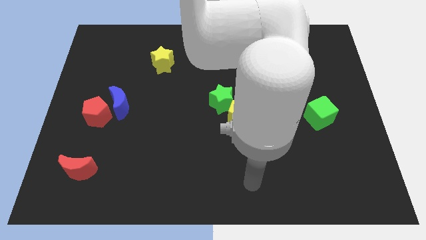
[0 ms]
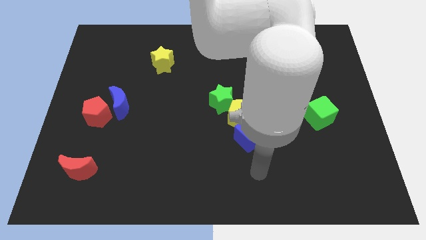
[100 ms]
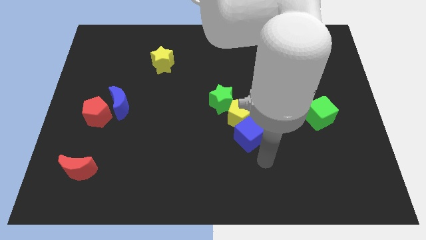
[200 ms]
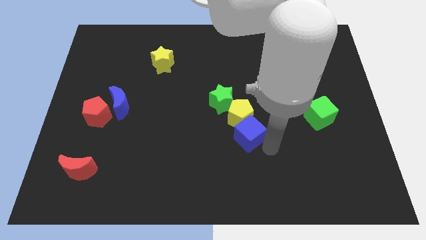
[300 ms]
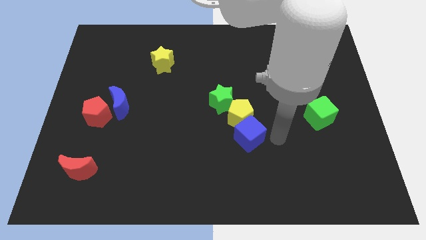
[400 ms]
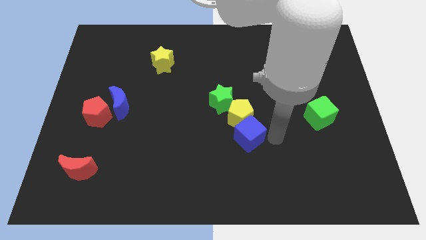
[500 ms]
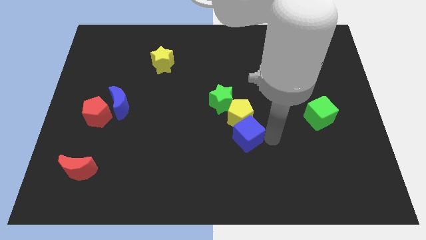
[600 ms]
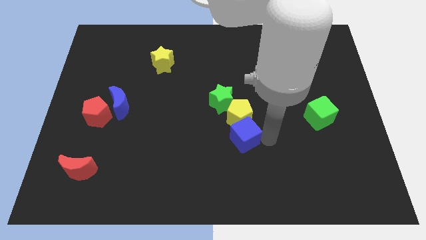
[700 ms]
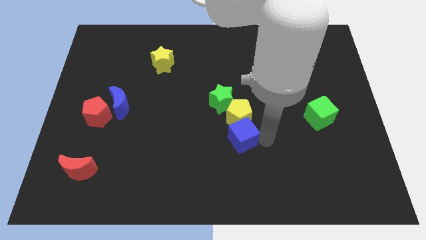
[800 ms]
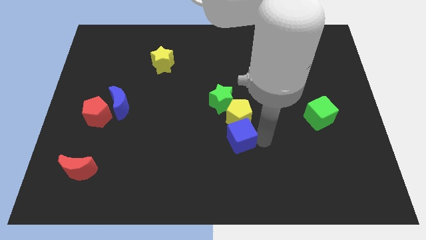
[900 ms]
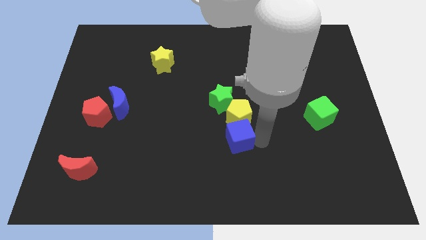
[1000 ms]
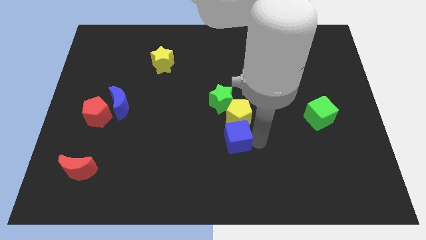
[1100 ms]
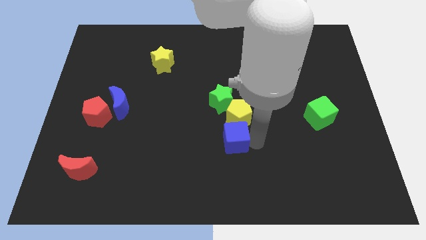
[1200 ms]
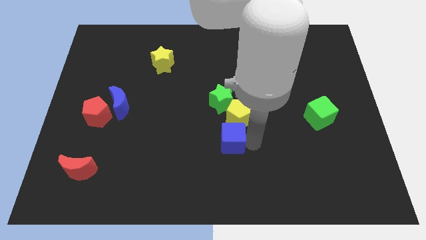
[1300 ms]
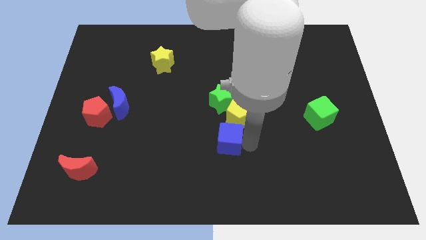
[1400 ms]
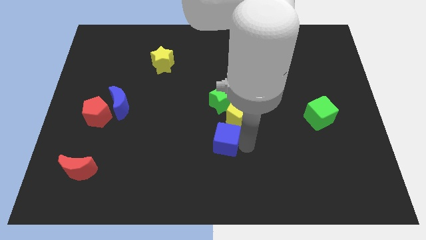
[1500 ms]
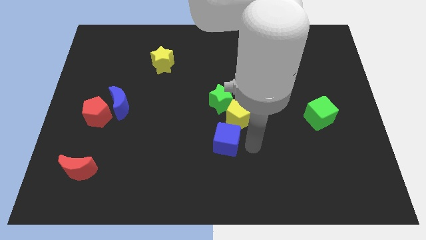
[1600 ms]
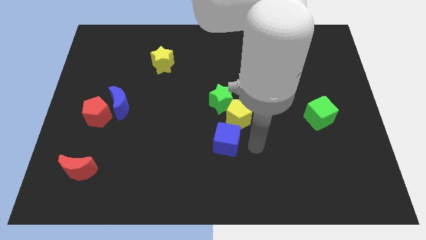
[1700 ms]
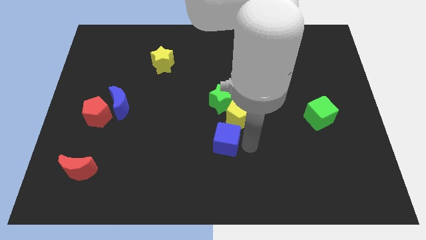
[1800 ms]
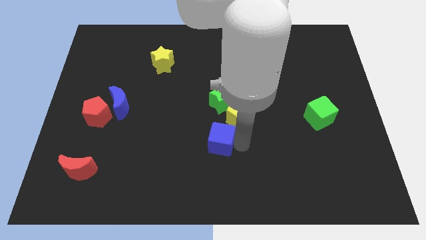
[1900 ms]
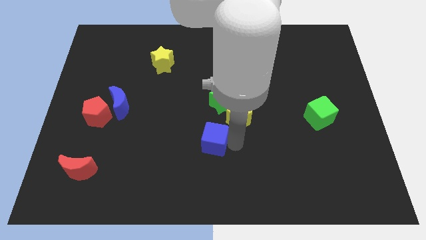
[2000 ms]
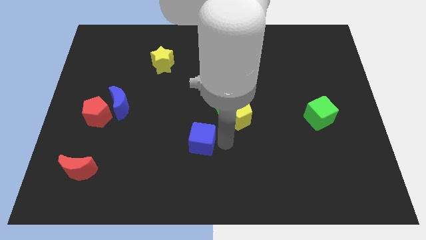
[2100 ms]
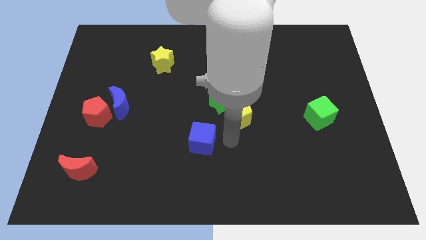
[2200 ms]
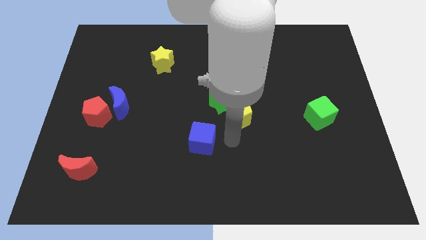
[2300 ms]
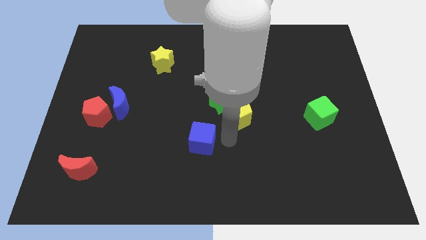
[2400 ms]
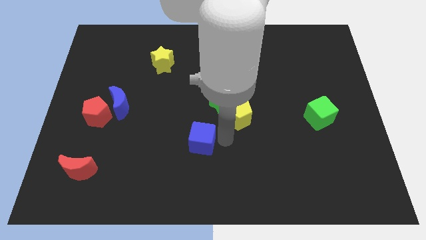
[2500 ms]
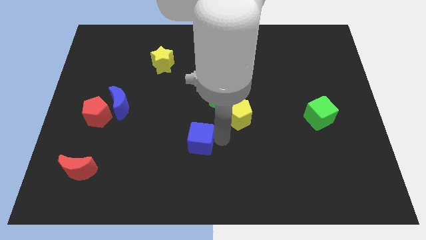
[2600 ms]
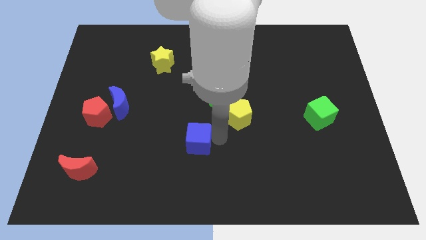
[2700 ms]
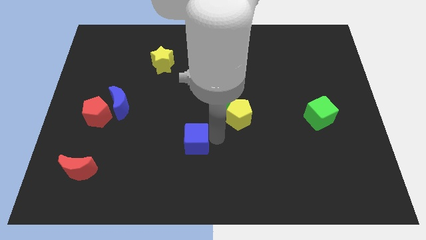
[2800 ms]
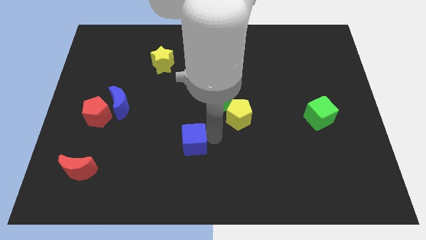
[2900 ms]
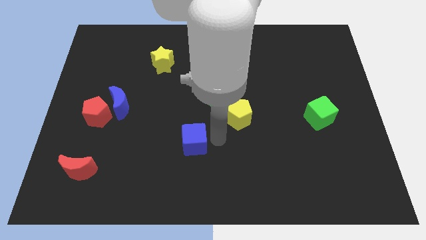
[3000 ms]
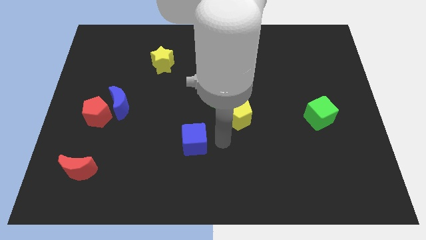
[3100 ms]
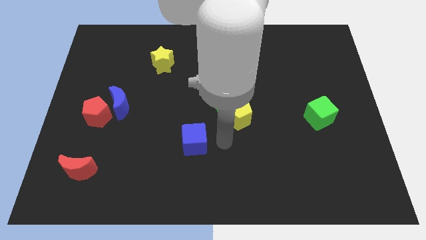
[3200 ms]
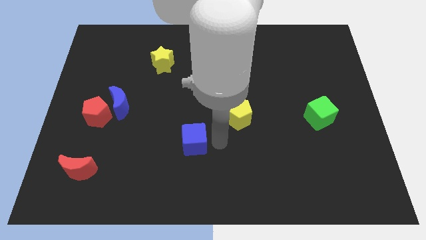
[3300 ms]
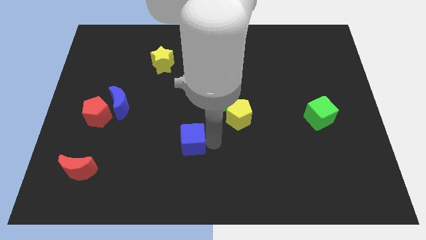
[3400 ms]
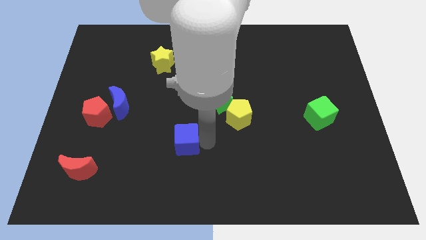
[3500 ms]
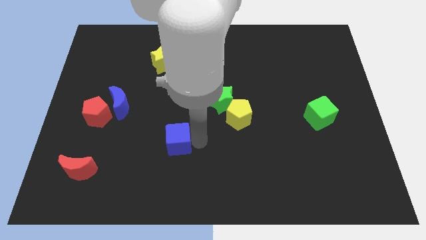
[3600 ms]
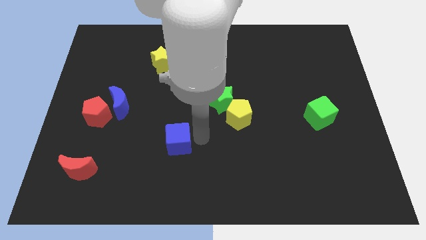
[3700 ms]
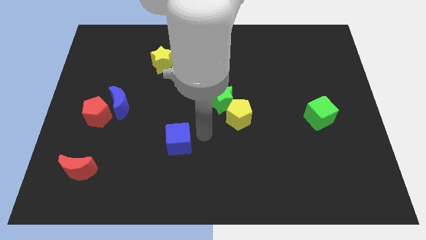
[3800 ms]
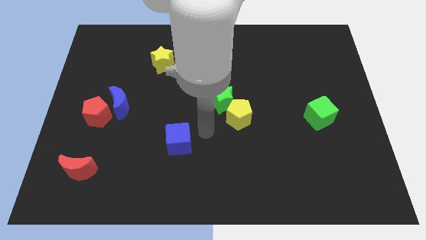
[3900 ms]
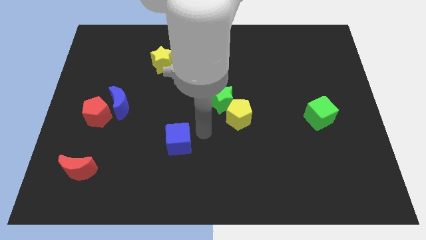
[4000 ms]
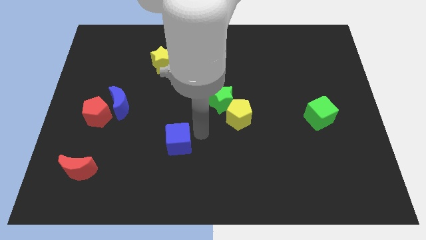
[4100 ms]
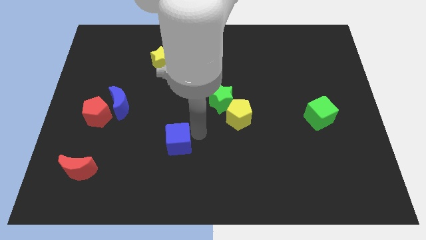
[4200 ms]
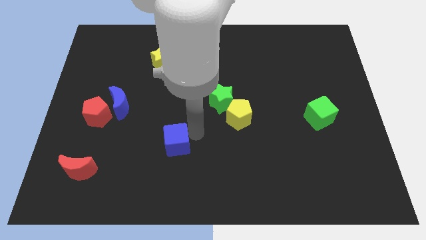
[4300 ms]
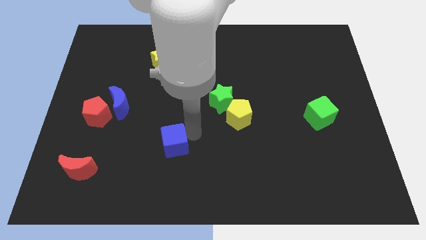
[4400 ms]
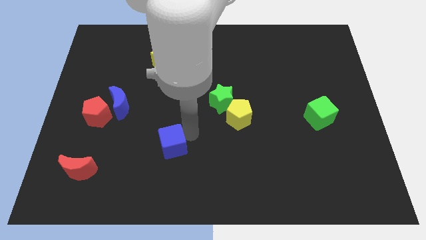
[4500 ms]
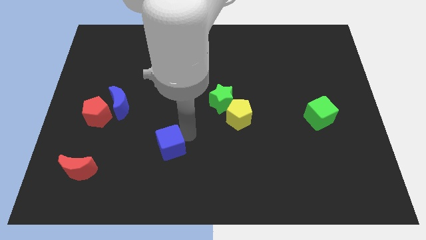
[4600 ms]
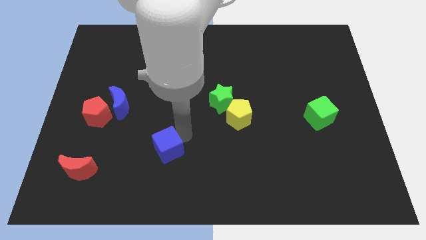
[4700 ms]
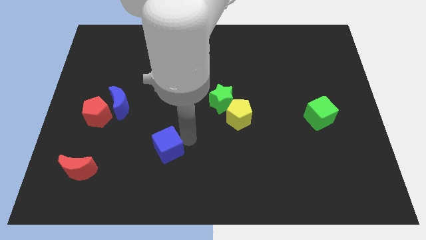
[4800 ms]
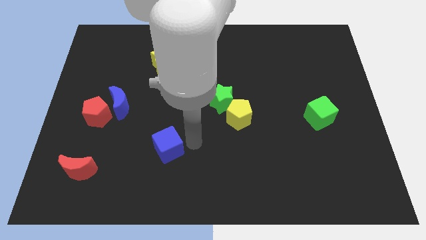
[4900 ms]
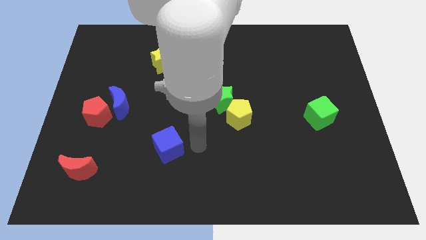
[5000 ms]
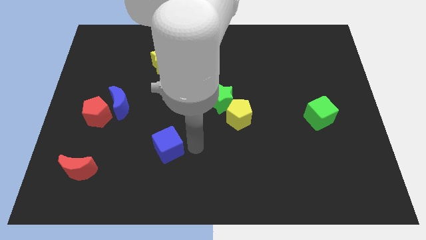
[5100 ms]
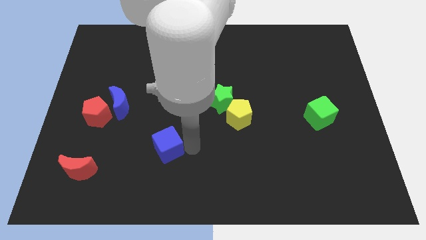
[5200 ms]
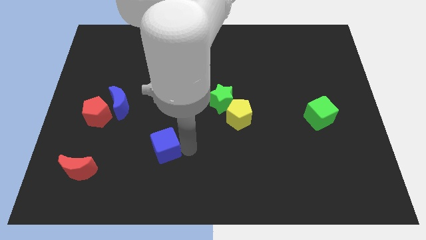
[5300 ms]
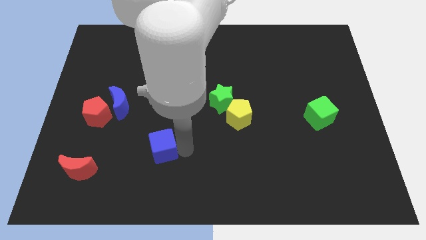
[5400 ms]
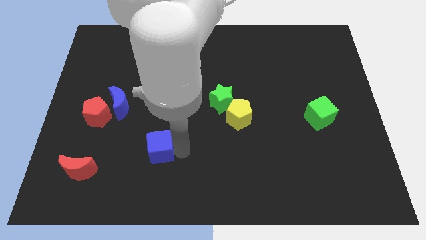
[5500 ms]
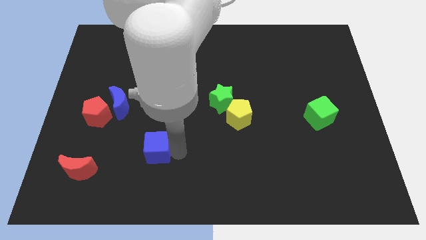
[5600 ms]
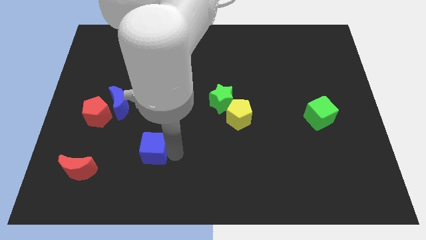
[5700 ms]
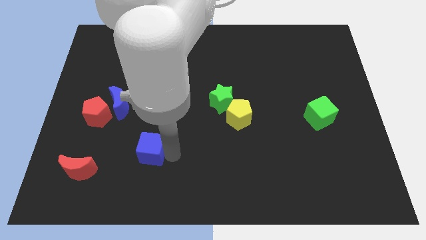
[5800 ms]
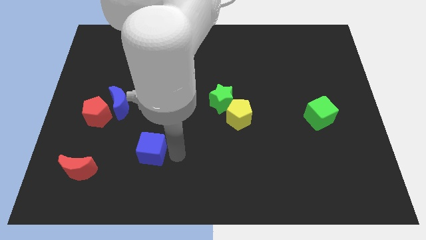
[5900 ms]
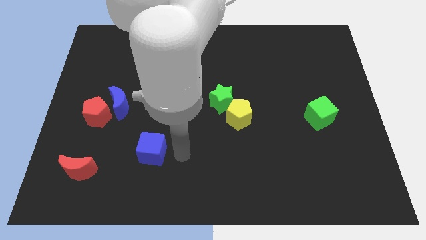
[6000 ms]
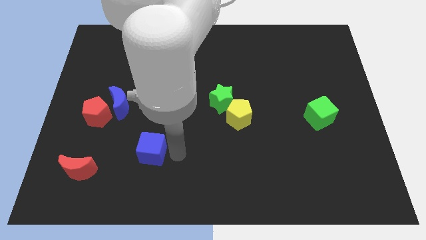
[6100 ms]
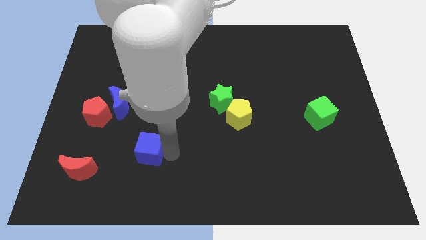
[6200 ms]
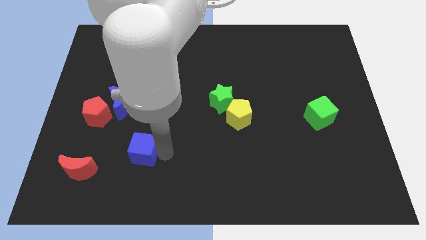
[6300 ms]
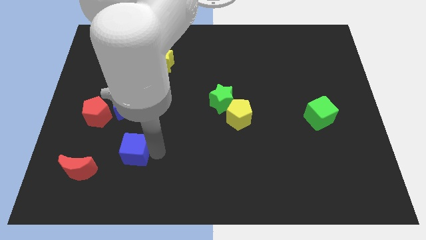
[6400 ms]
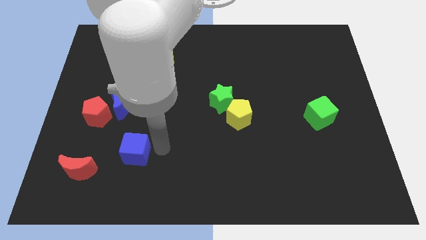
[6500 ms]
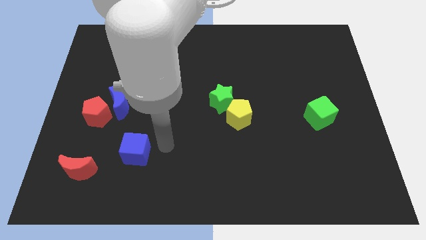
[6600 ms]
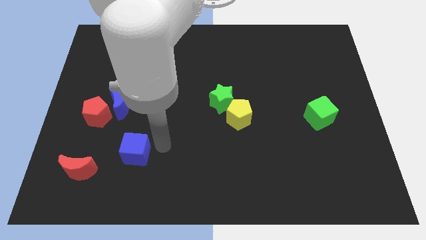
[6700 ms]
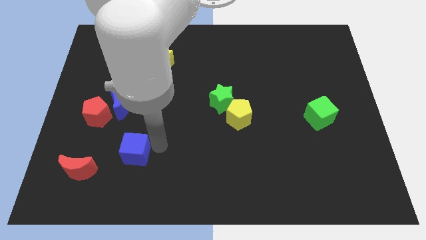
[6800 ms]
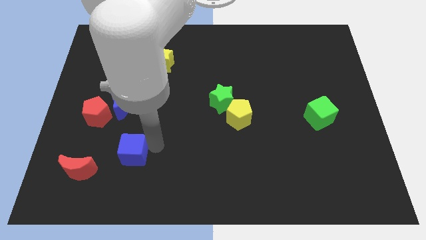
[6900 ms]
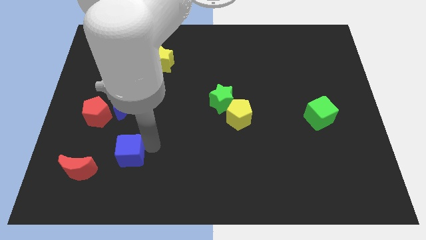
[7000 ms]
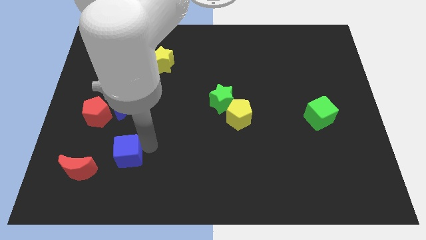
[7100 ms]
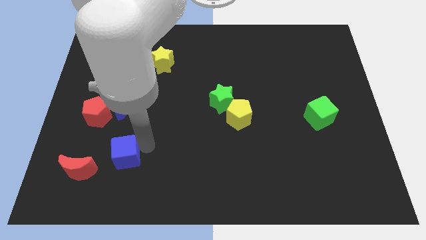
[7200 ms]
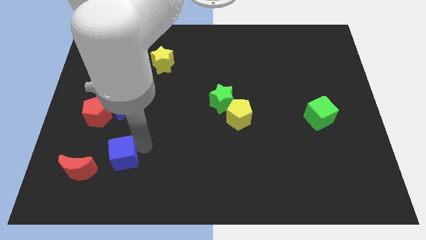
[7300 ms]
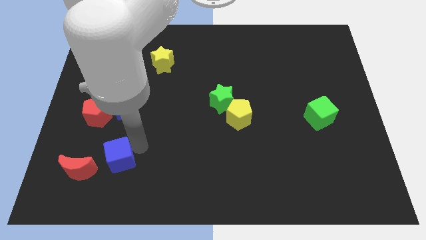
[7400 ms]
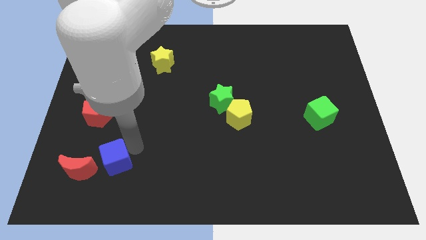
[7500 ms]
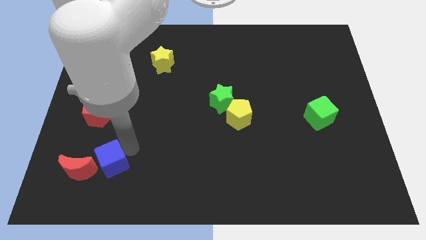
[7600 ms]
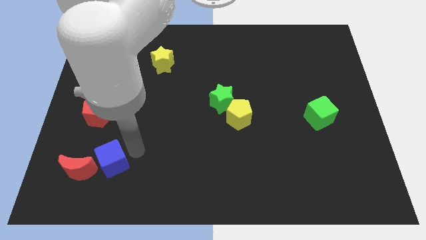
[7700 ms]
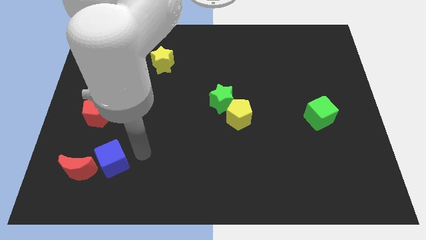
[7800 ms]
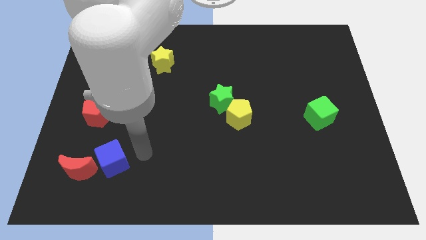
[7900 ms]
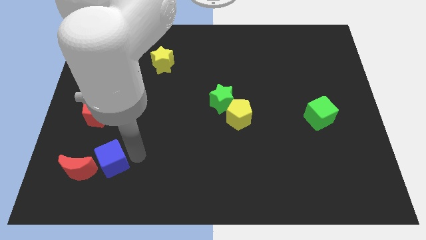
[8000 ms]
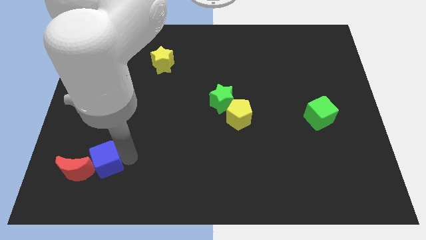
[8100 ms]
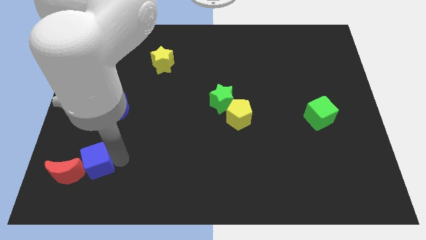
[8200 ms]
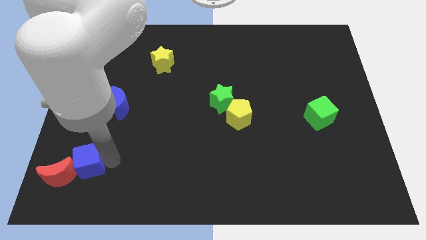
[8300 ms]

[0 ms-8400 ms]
slide the blue cube towards the red moon
